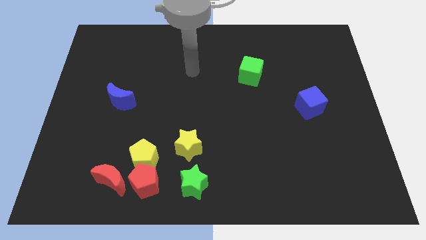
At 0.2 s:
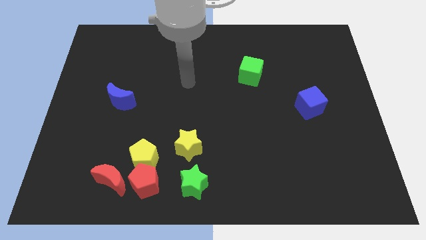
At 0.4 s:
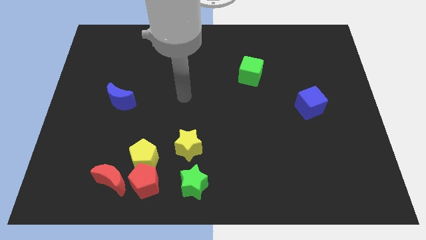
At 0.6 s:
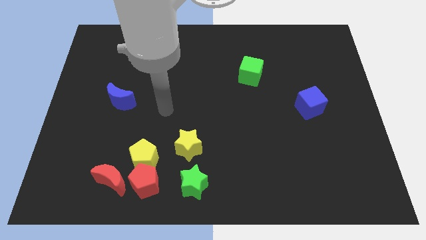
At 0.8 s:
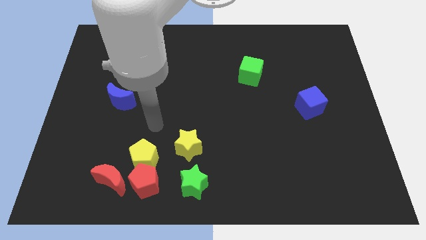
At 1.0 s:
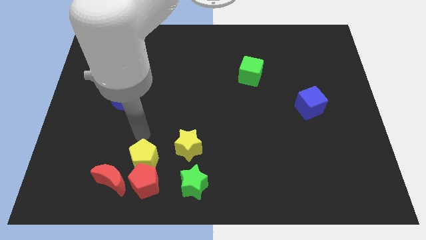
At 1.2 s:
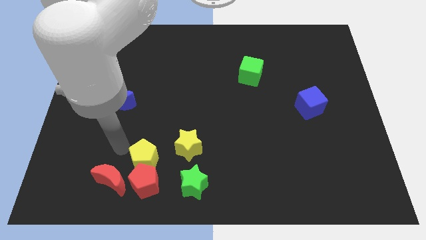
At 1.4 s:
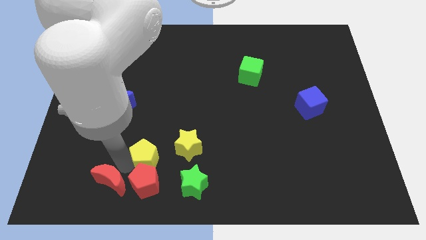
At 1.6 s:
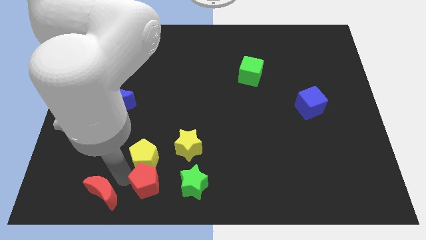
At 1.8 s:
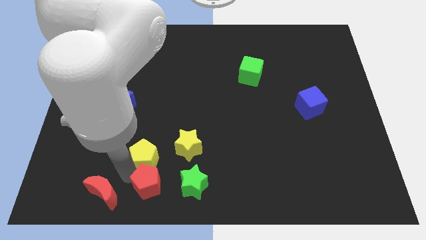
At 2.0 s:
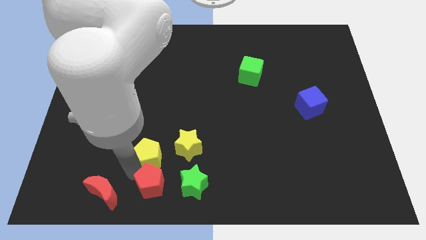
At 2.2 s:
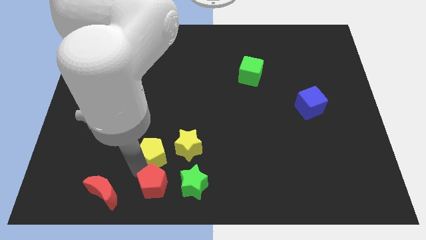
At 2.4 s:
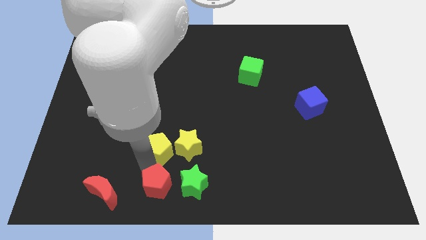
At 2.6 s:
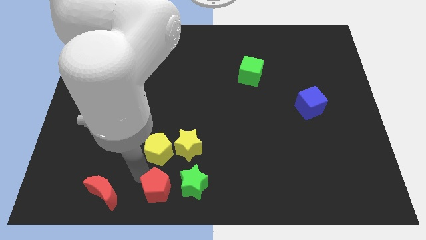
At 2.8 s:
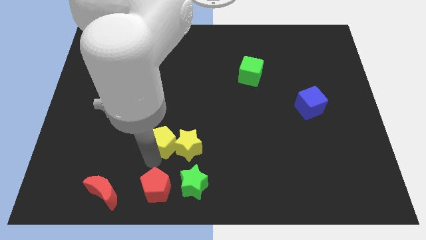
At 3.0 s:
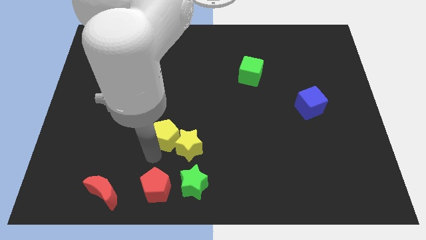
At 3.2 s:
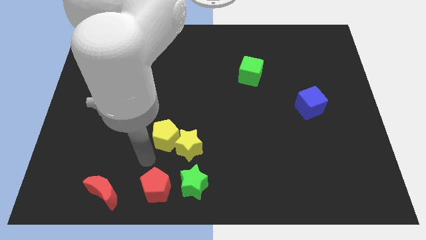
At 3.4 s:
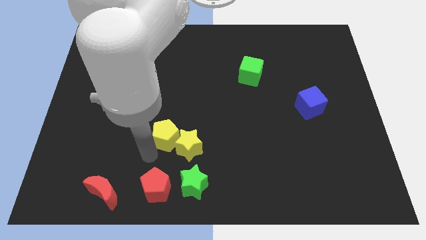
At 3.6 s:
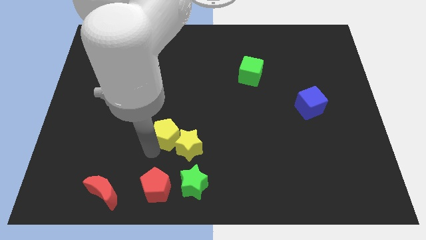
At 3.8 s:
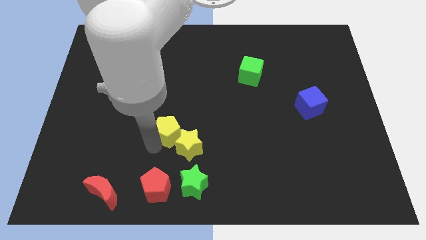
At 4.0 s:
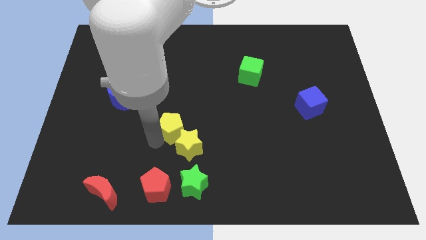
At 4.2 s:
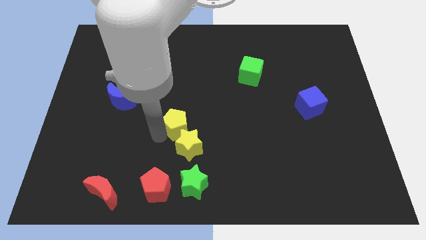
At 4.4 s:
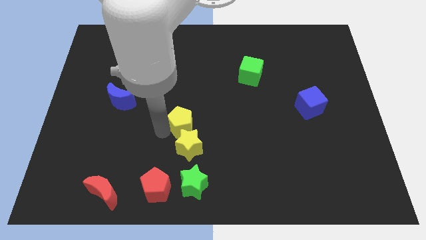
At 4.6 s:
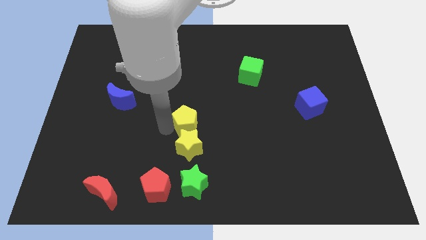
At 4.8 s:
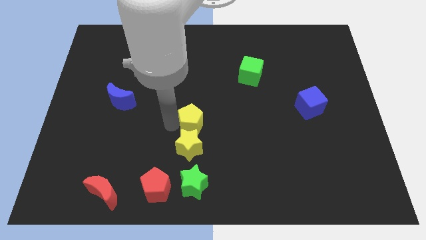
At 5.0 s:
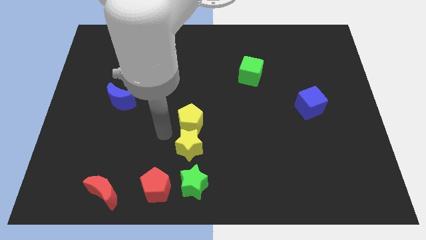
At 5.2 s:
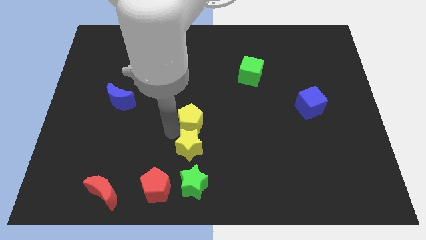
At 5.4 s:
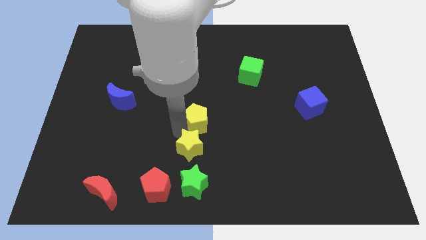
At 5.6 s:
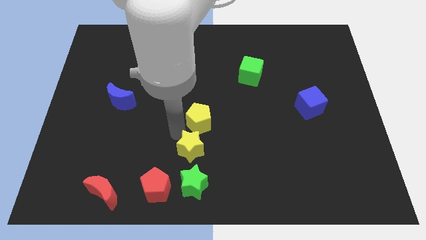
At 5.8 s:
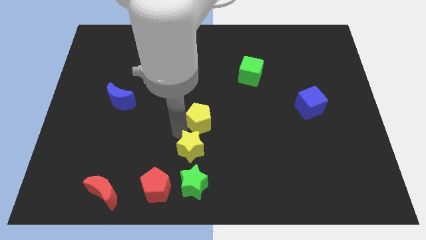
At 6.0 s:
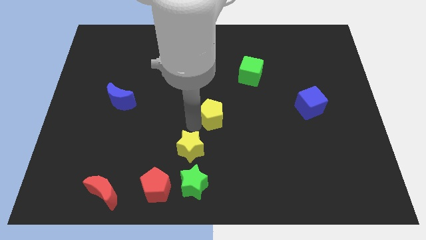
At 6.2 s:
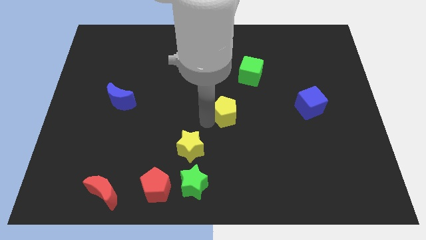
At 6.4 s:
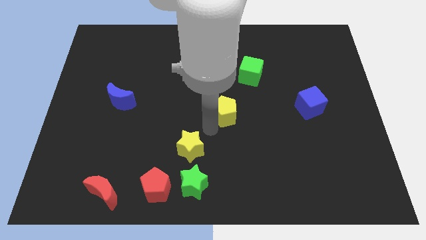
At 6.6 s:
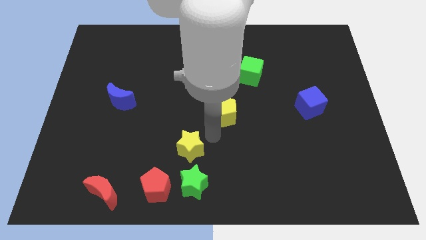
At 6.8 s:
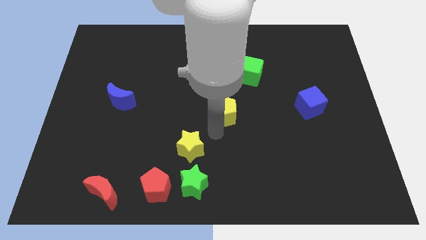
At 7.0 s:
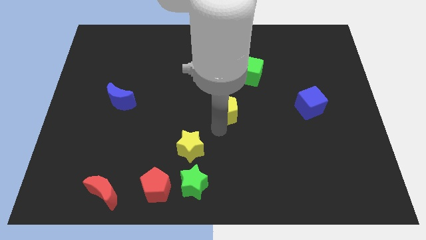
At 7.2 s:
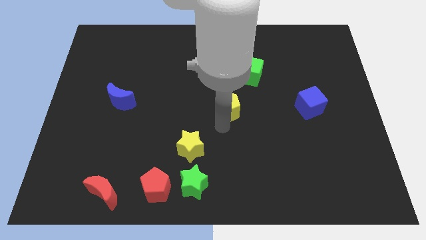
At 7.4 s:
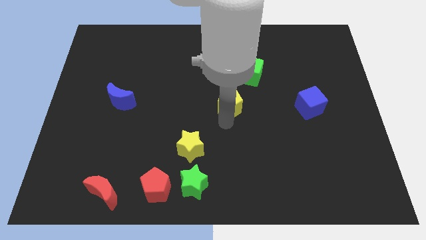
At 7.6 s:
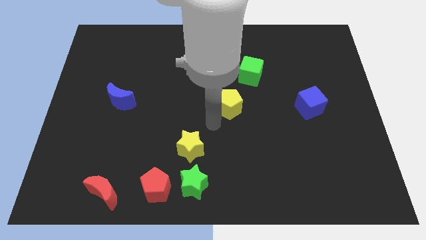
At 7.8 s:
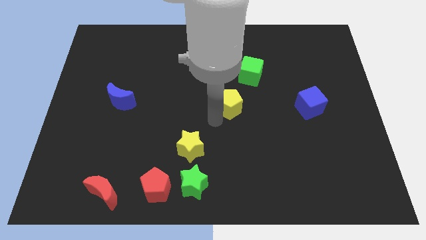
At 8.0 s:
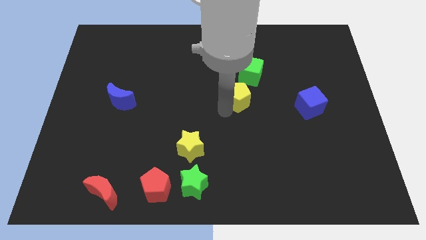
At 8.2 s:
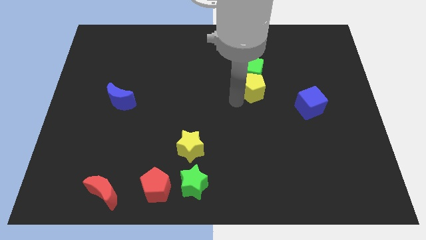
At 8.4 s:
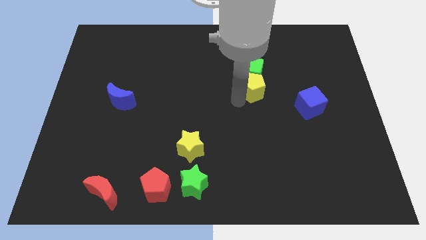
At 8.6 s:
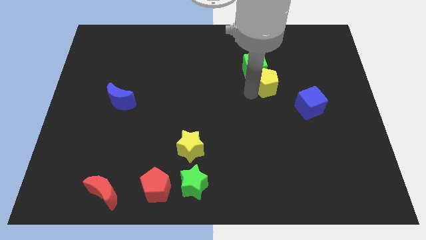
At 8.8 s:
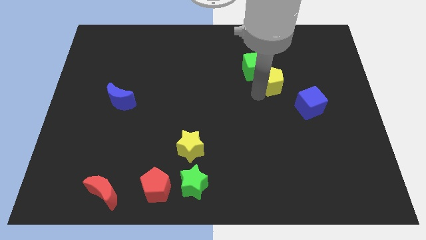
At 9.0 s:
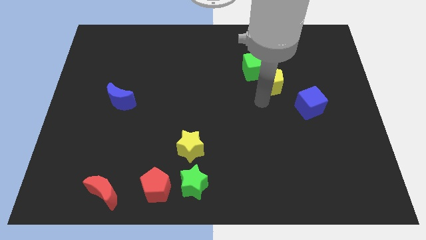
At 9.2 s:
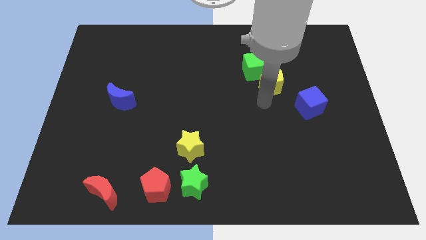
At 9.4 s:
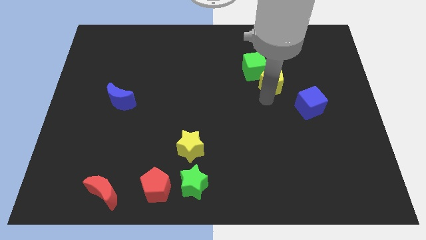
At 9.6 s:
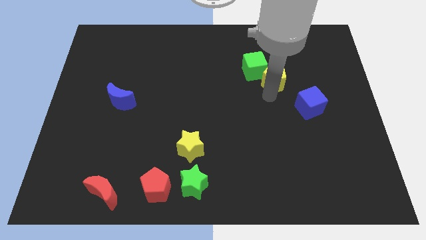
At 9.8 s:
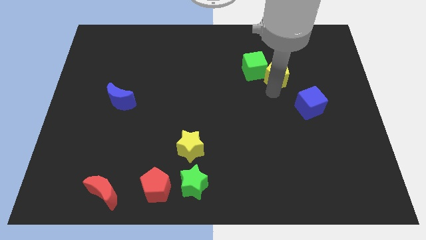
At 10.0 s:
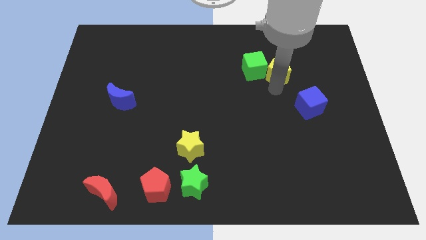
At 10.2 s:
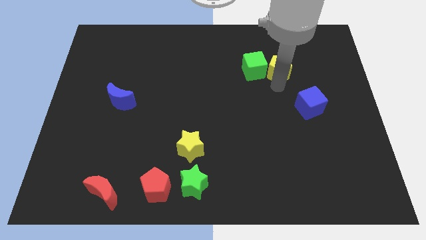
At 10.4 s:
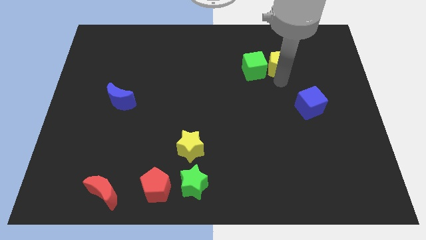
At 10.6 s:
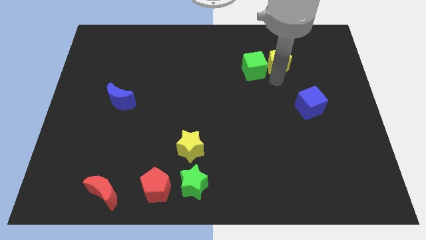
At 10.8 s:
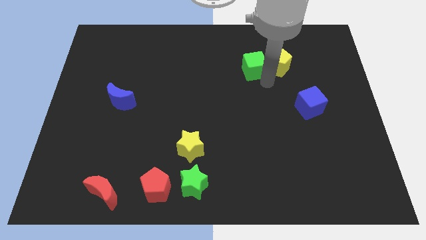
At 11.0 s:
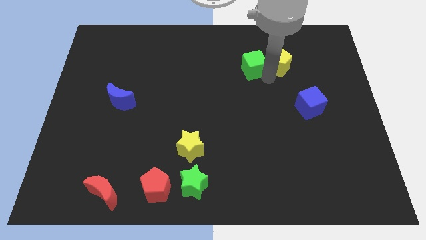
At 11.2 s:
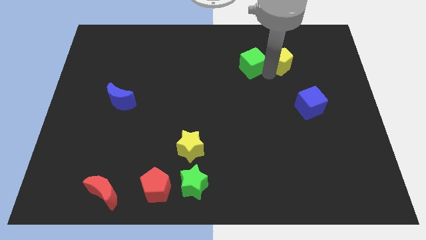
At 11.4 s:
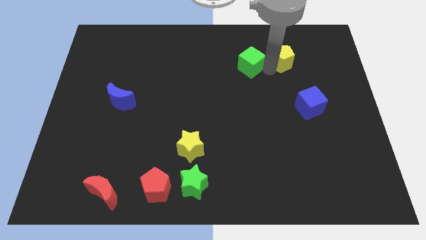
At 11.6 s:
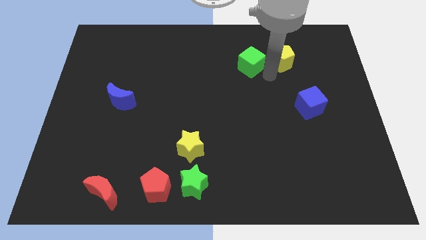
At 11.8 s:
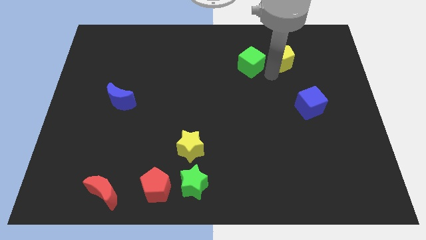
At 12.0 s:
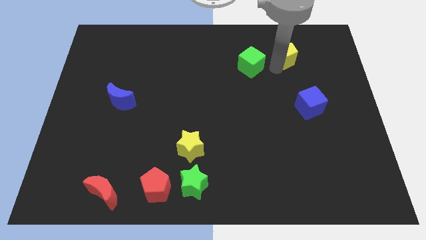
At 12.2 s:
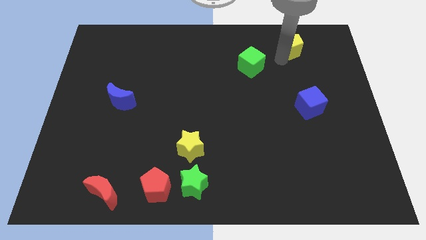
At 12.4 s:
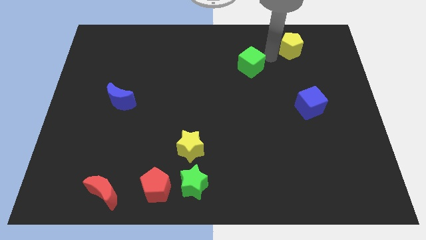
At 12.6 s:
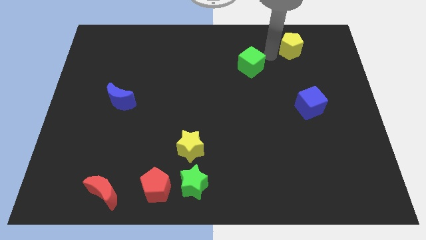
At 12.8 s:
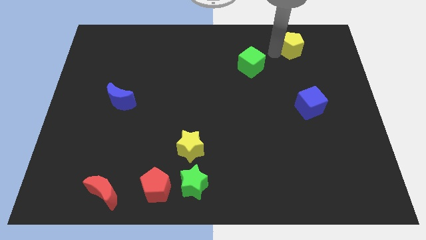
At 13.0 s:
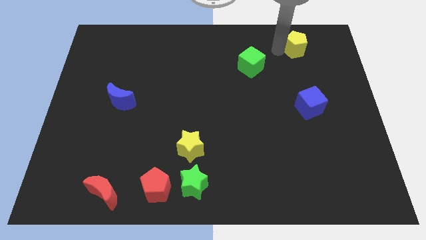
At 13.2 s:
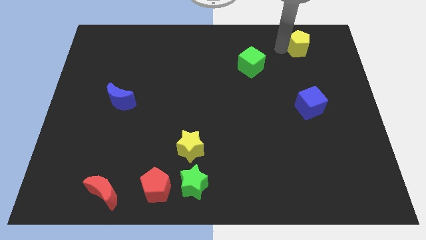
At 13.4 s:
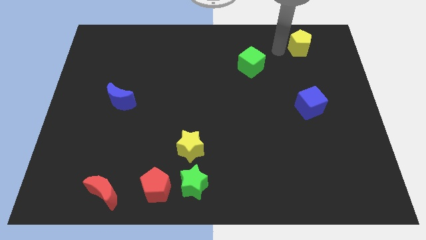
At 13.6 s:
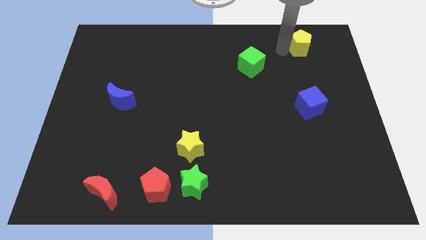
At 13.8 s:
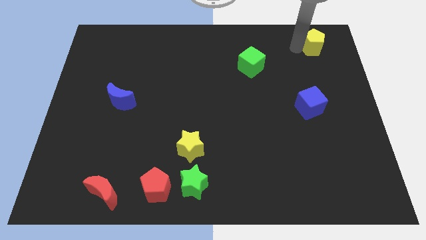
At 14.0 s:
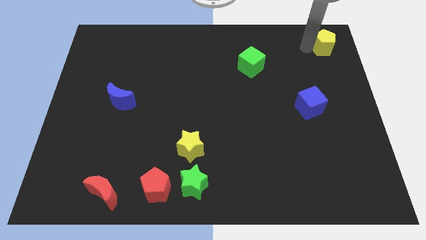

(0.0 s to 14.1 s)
put the yellow pentagon to the top right
